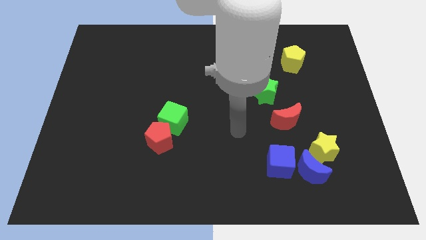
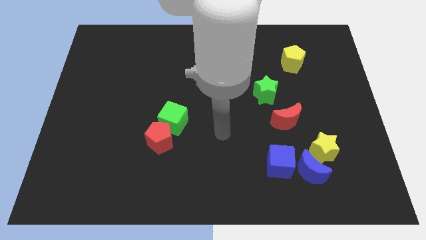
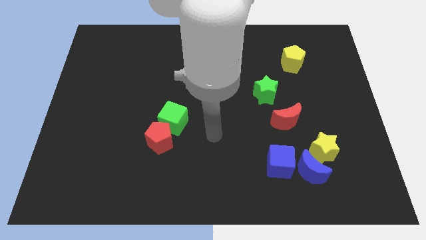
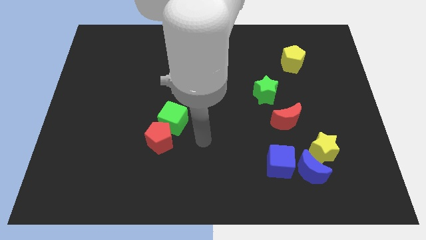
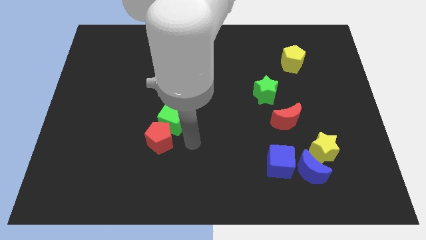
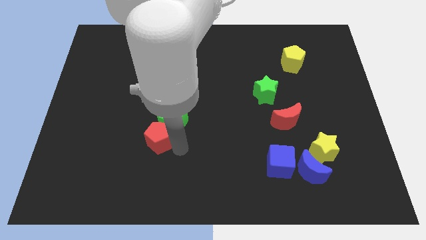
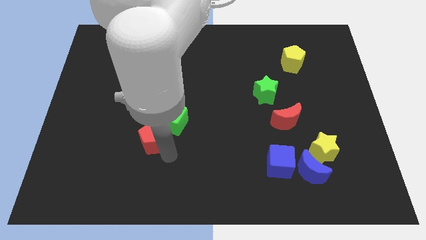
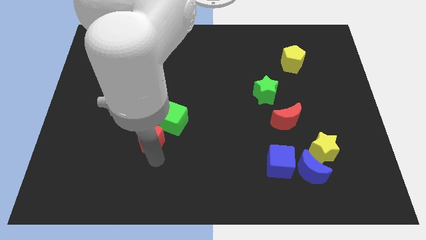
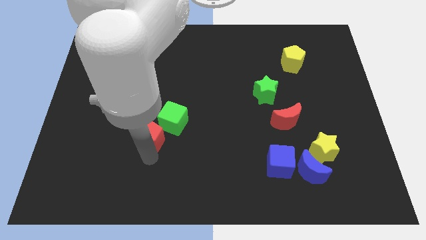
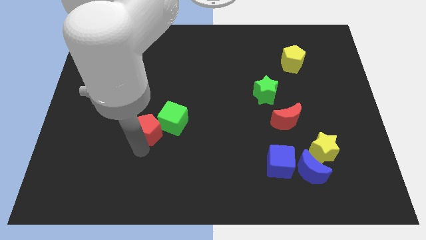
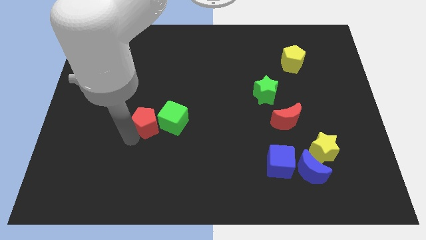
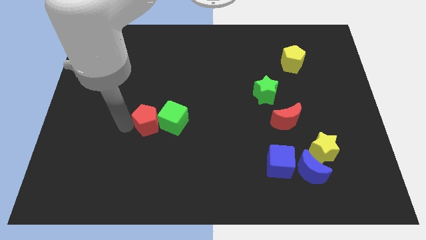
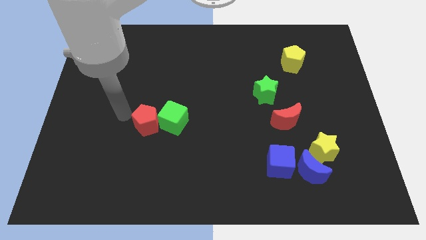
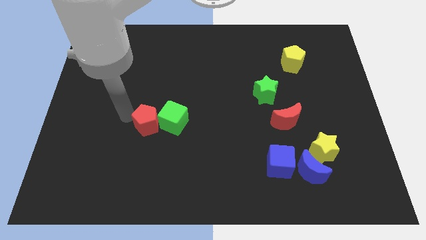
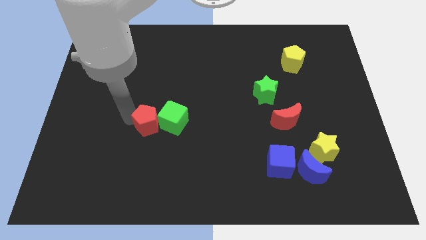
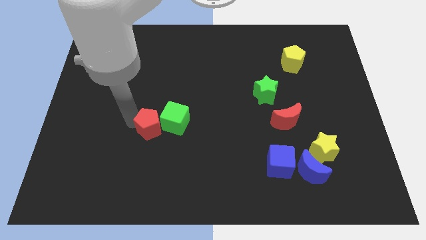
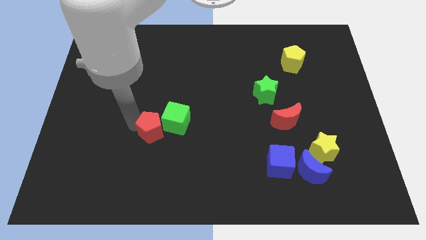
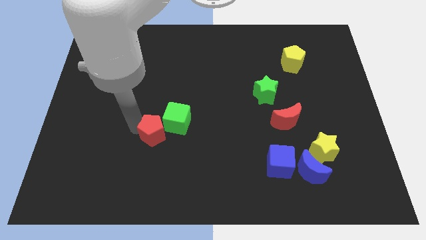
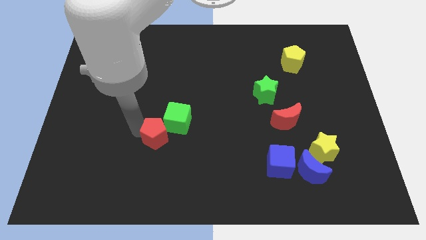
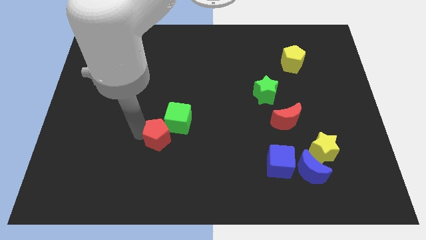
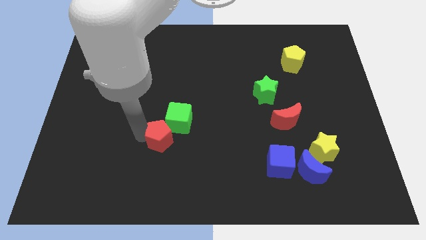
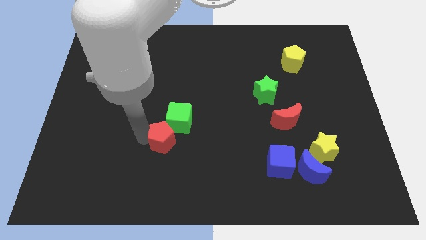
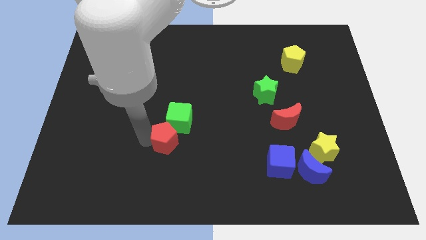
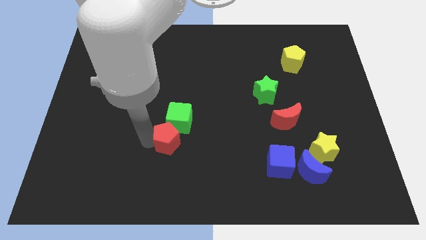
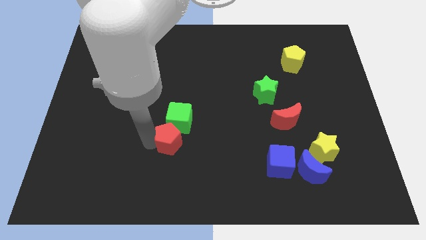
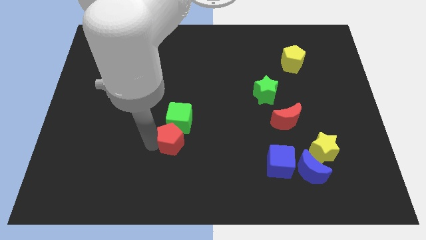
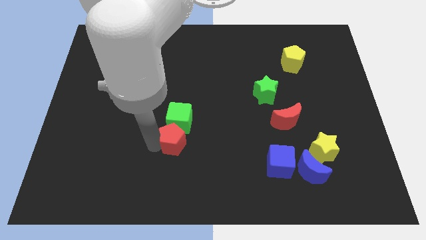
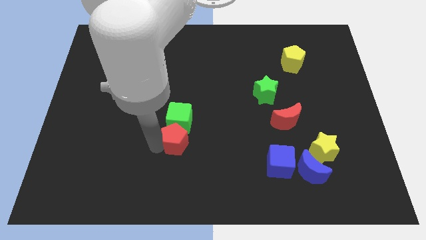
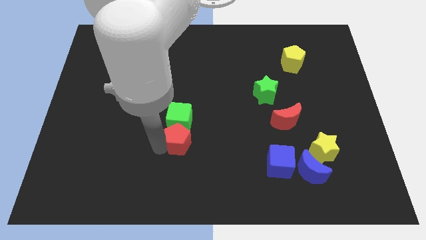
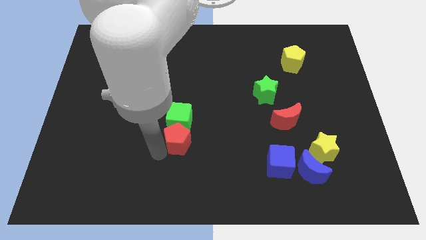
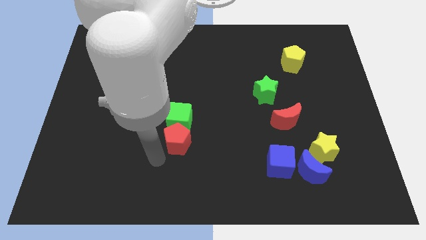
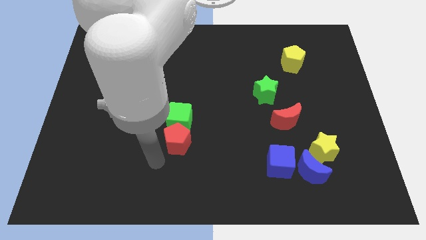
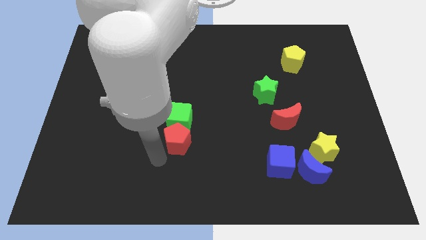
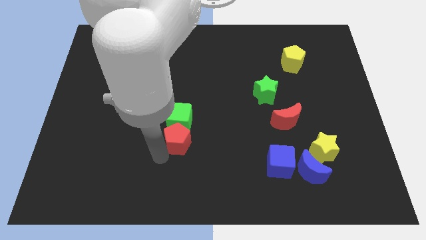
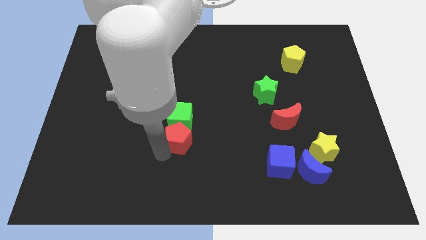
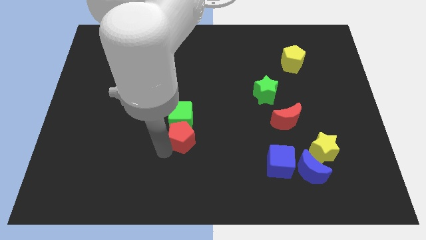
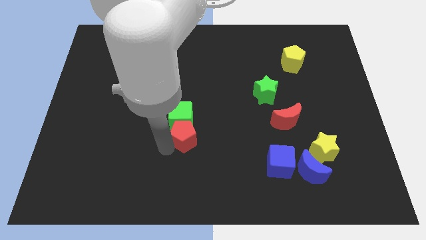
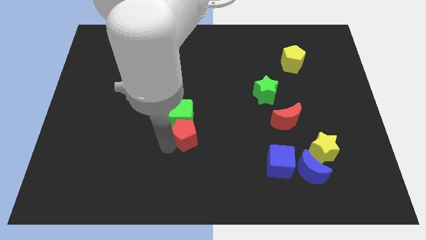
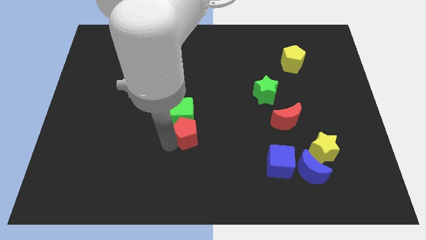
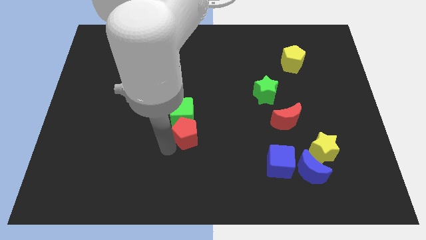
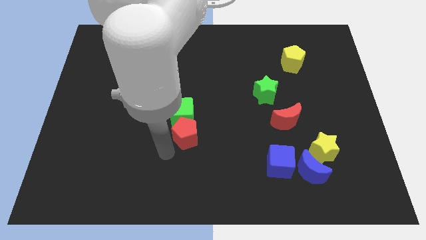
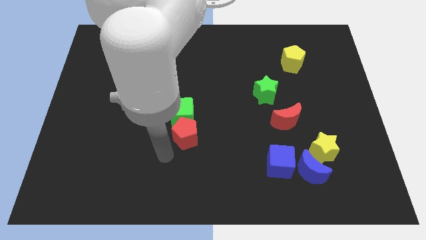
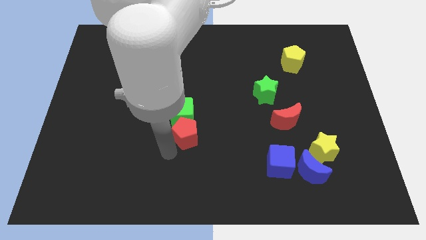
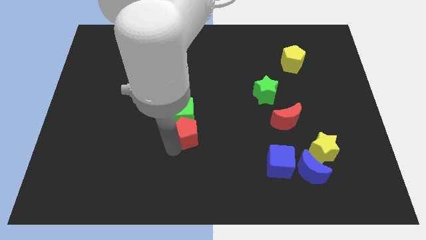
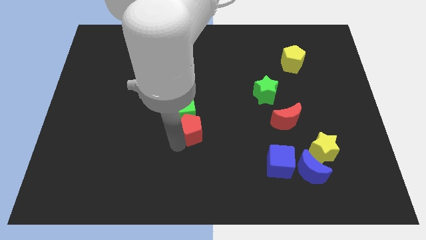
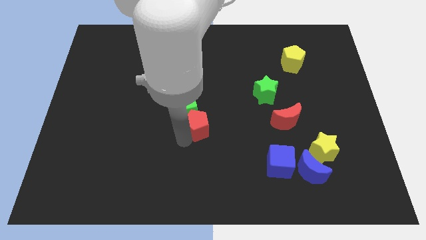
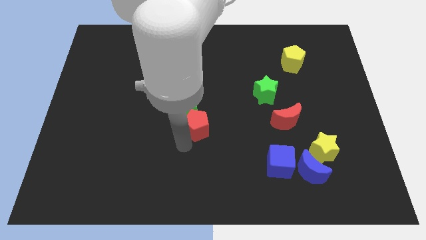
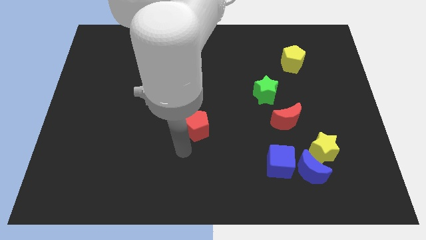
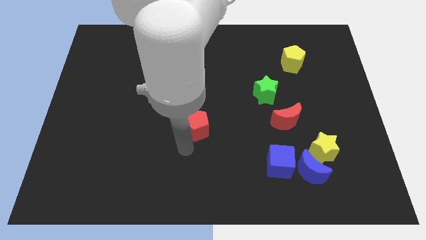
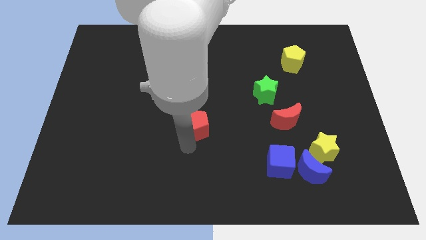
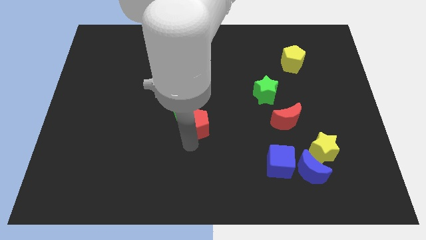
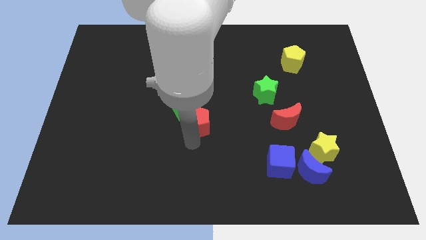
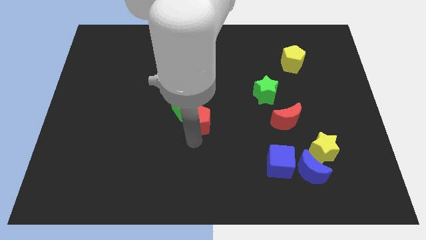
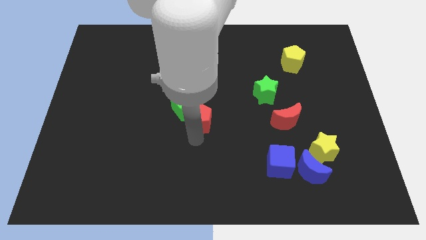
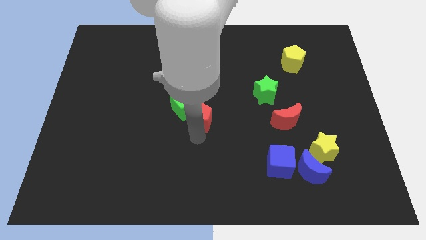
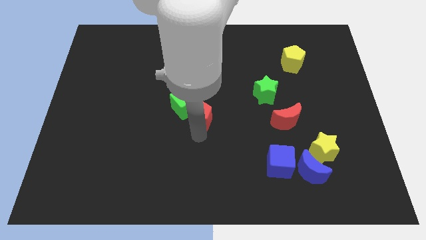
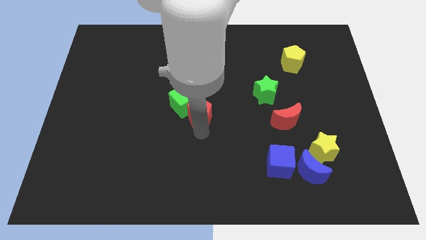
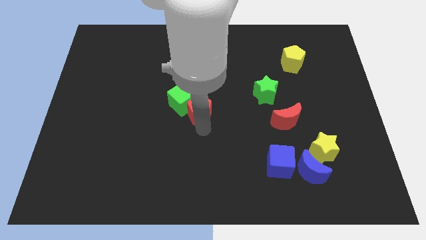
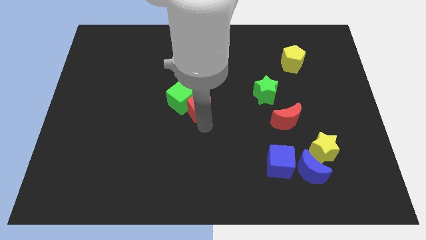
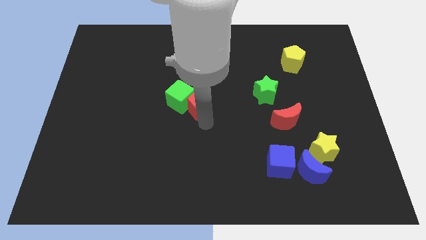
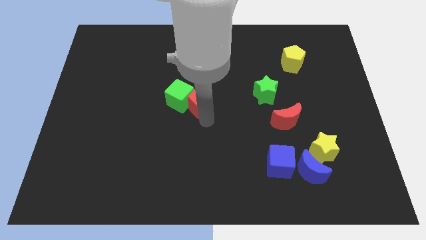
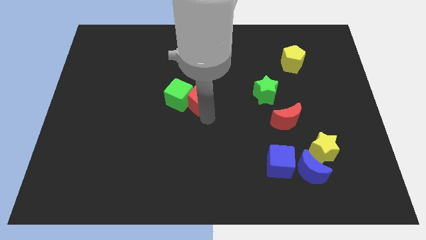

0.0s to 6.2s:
push the red pentagon to the left of the green star

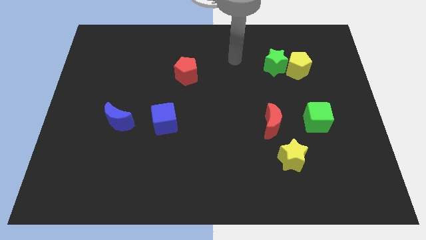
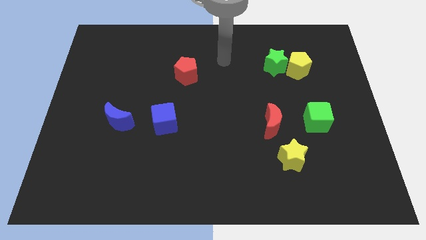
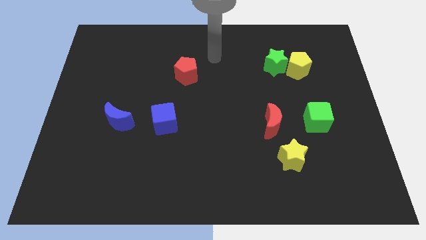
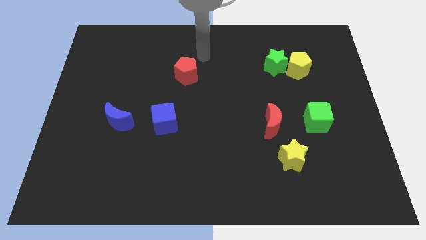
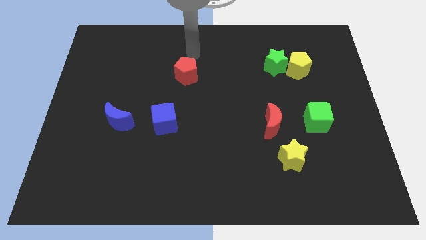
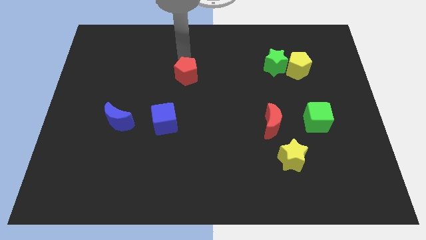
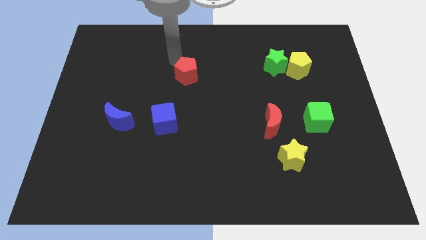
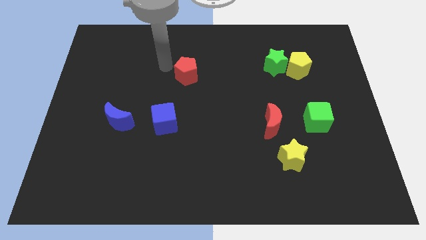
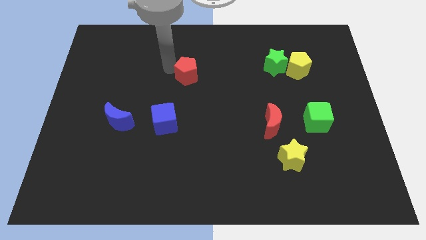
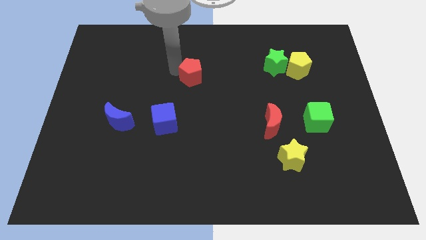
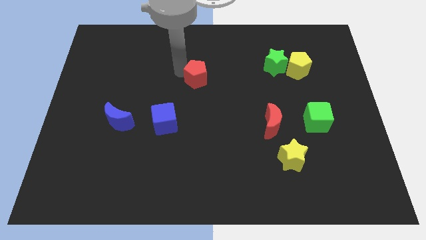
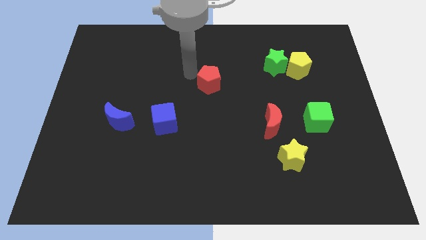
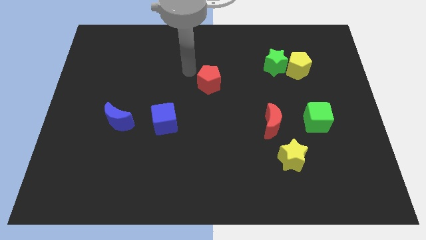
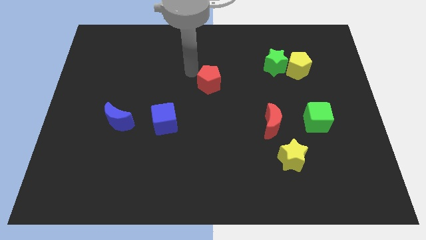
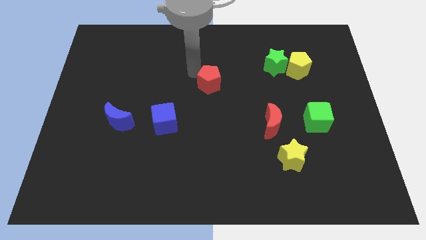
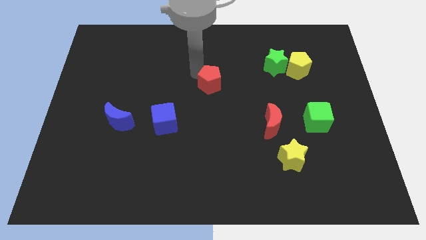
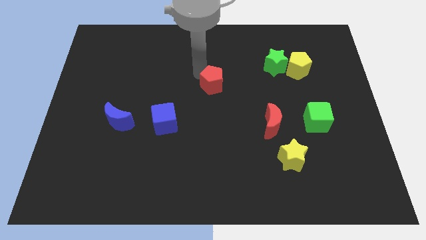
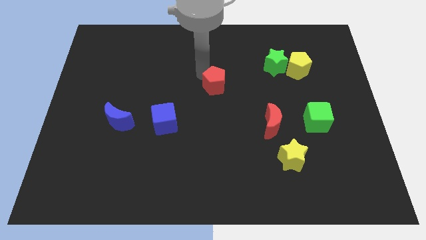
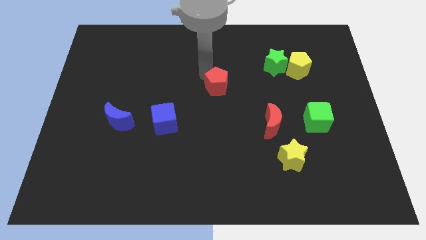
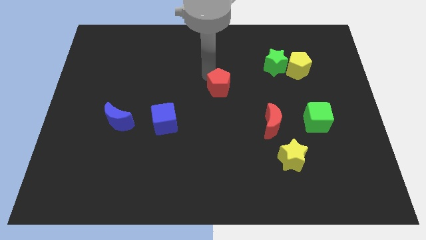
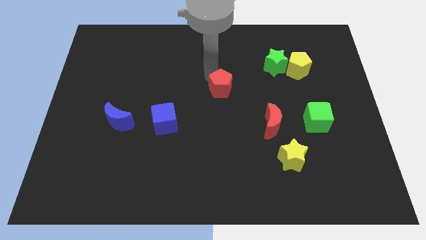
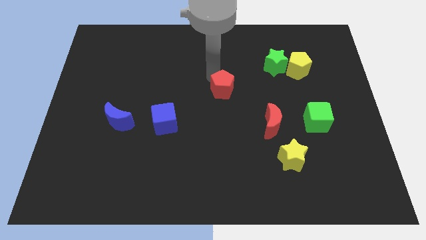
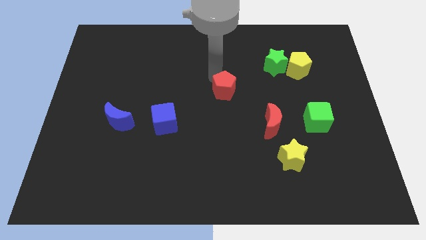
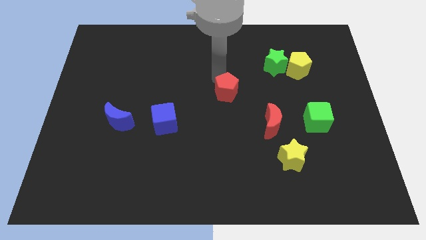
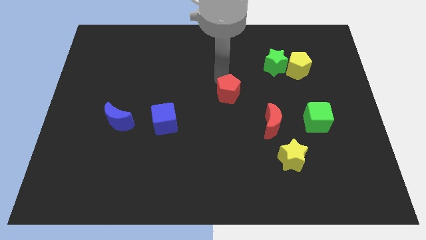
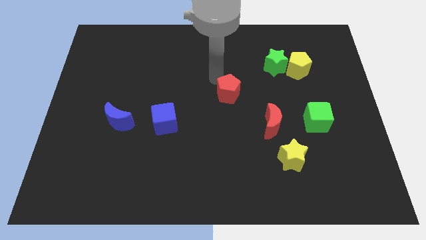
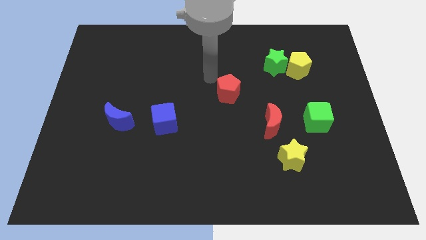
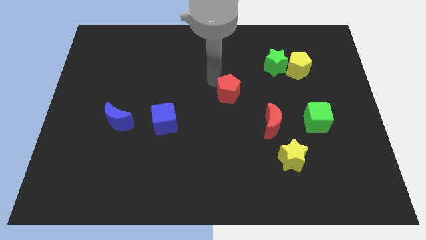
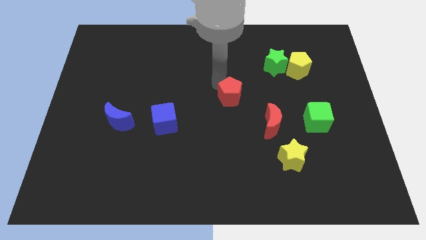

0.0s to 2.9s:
slide the red pentagon to the top left of the red moon
